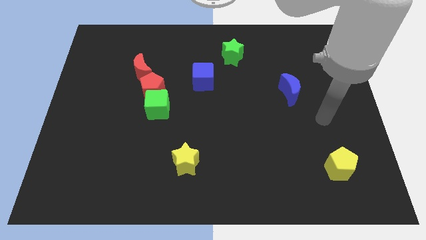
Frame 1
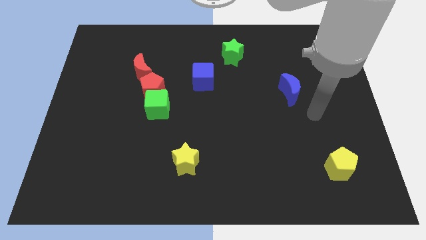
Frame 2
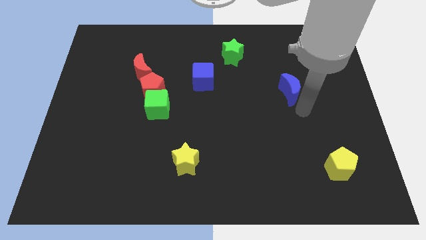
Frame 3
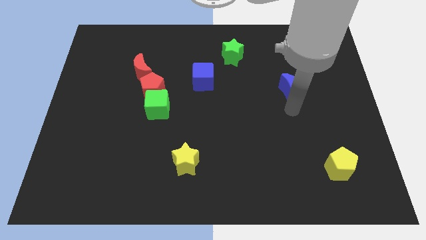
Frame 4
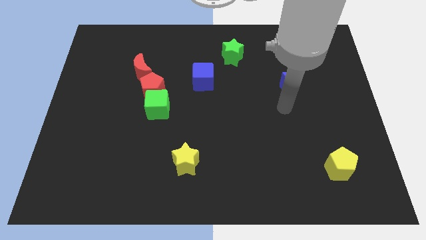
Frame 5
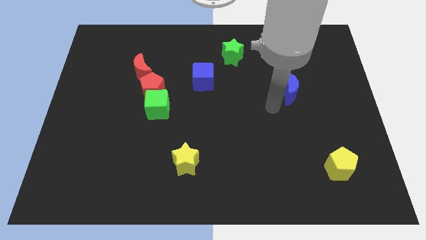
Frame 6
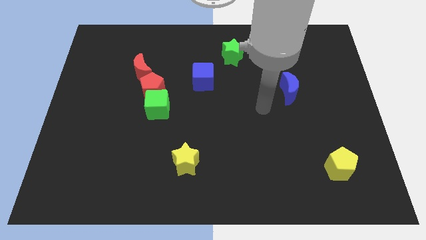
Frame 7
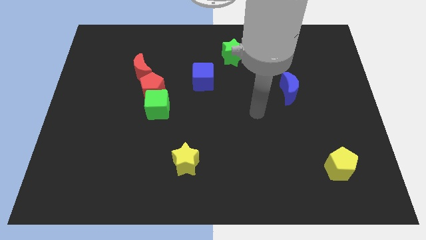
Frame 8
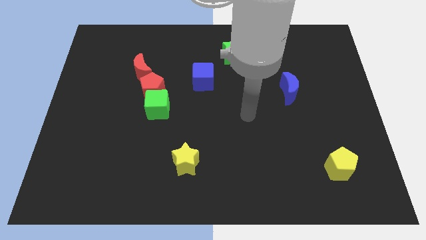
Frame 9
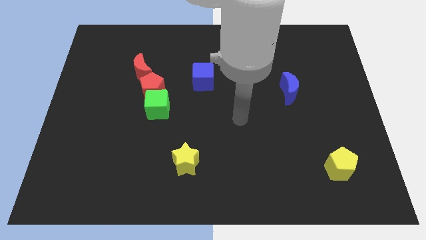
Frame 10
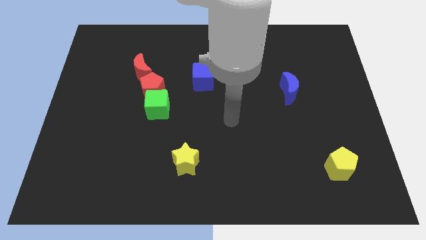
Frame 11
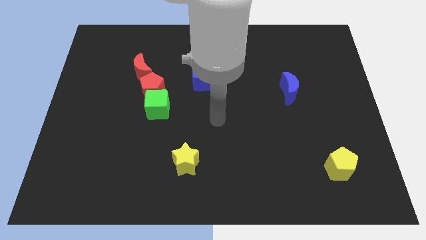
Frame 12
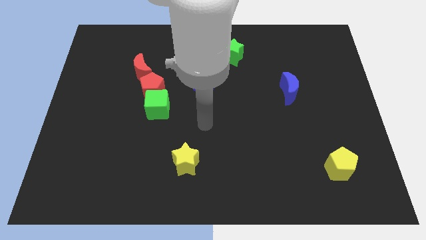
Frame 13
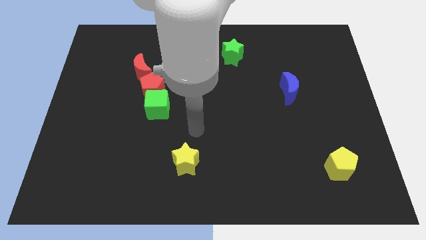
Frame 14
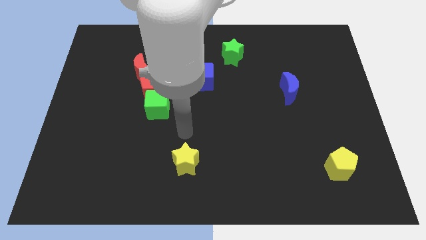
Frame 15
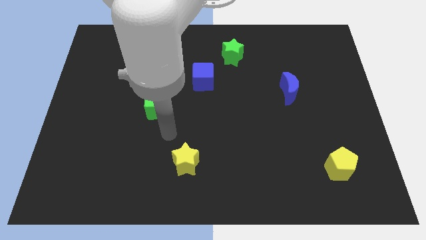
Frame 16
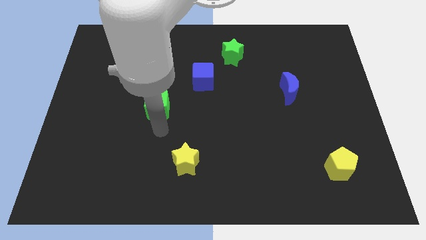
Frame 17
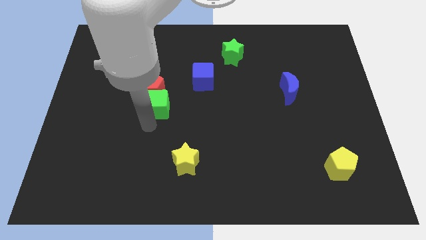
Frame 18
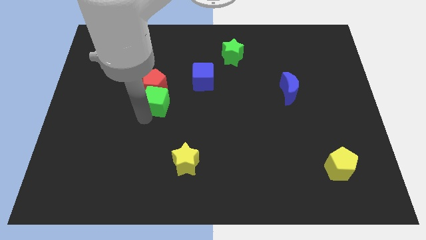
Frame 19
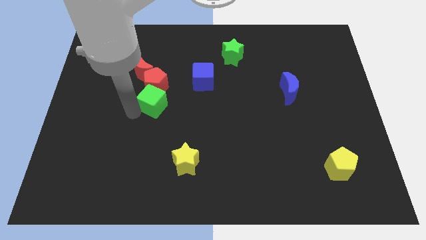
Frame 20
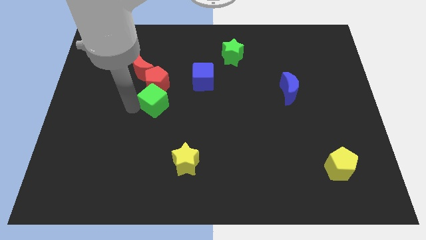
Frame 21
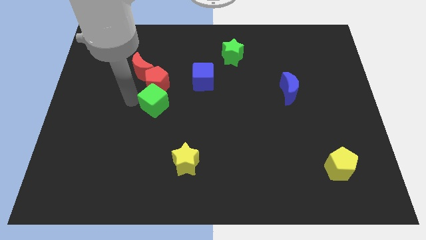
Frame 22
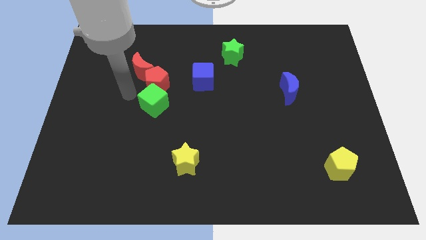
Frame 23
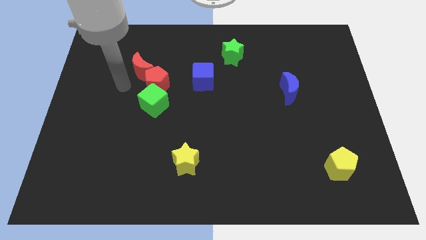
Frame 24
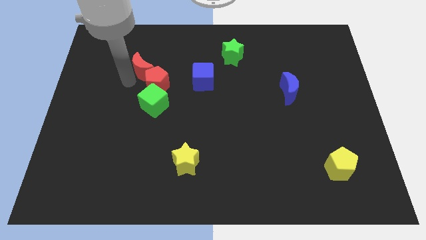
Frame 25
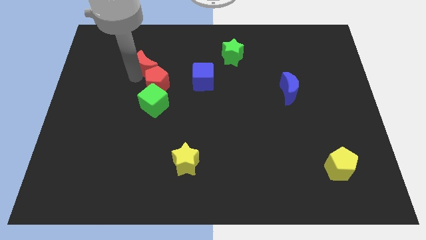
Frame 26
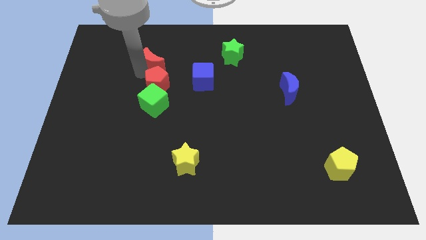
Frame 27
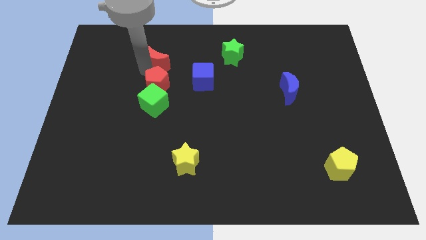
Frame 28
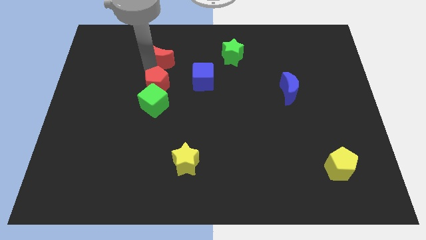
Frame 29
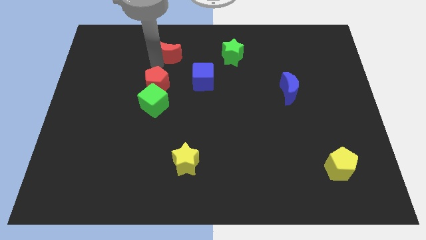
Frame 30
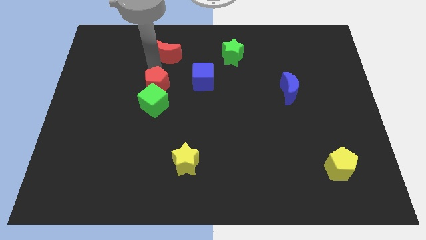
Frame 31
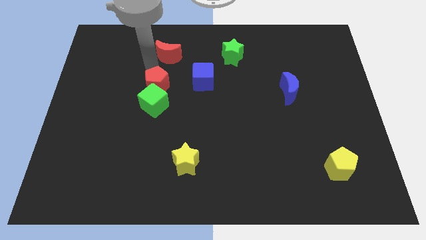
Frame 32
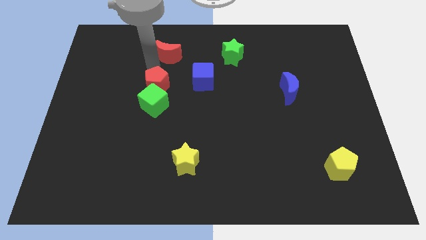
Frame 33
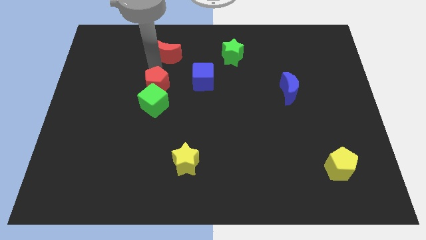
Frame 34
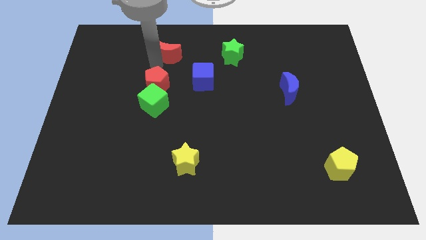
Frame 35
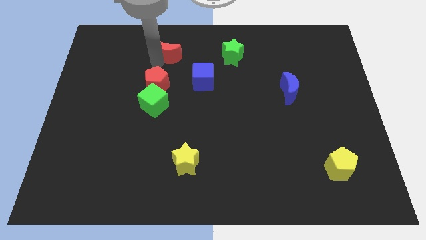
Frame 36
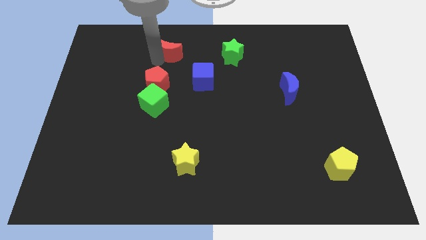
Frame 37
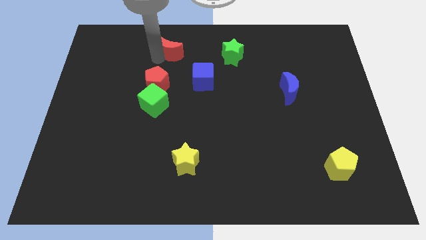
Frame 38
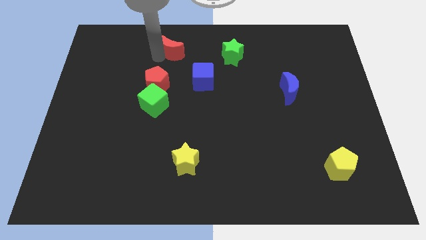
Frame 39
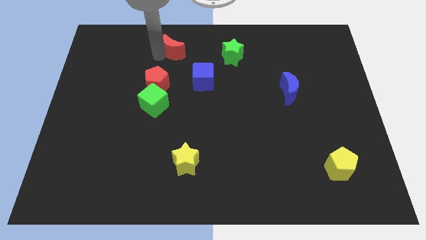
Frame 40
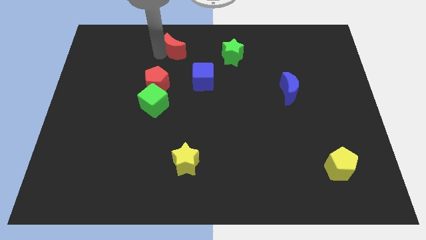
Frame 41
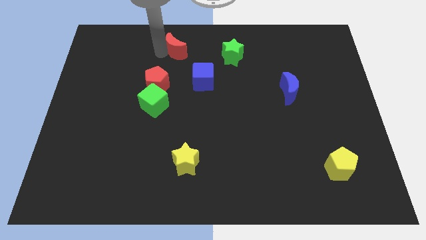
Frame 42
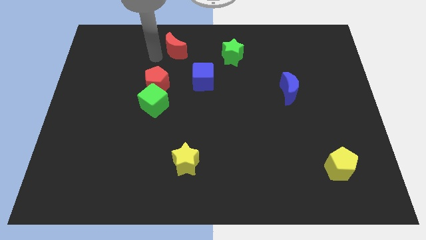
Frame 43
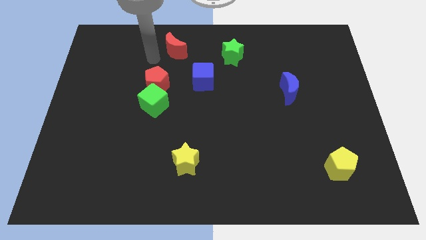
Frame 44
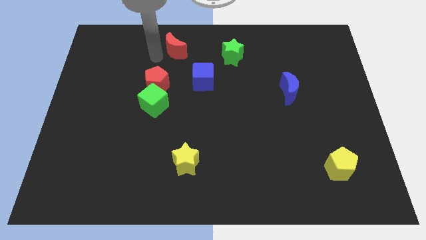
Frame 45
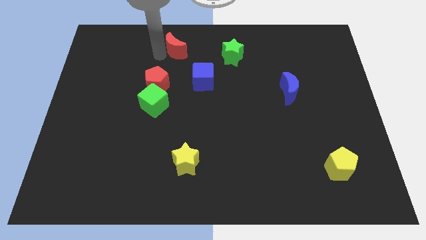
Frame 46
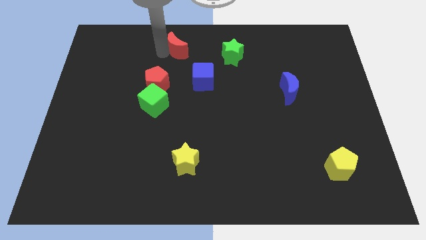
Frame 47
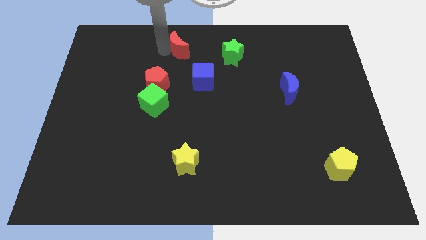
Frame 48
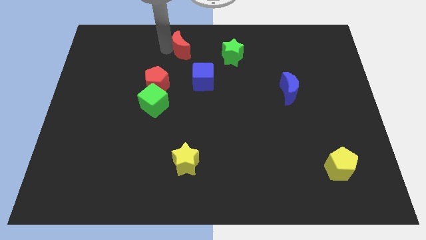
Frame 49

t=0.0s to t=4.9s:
move the red moon to the top

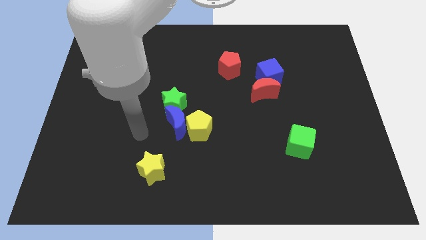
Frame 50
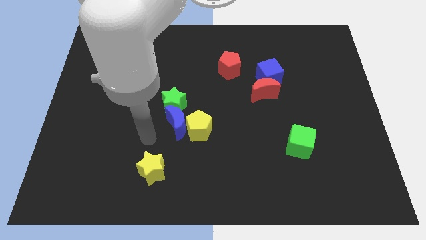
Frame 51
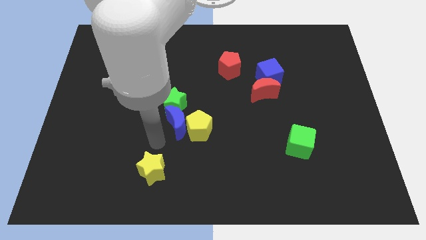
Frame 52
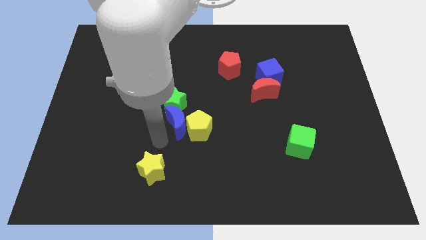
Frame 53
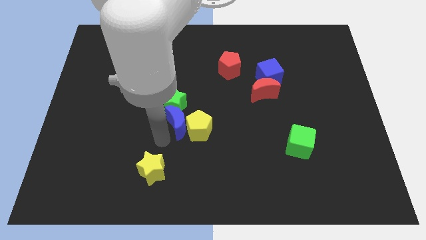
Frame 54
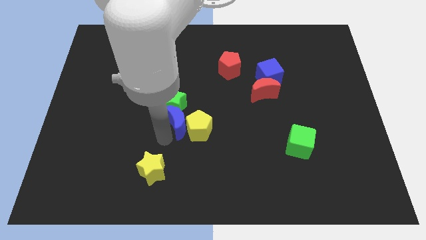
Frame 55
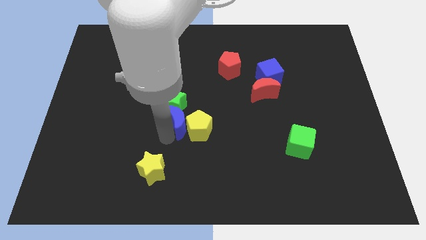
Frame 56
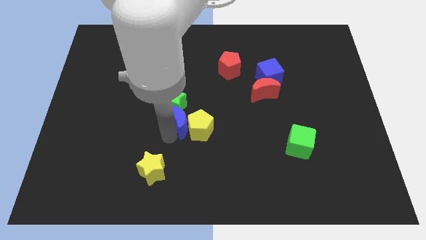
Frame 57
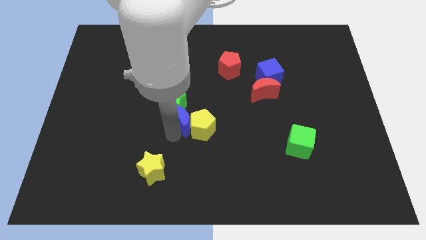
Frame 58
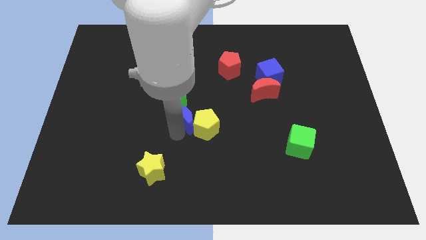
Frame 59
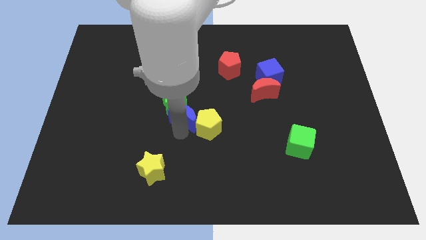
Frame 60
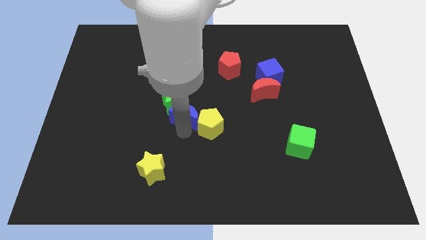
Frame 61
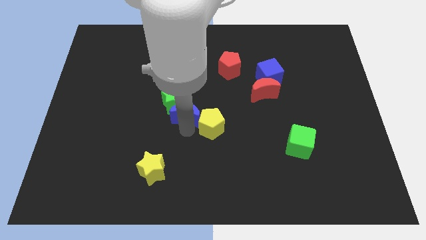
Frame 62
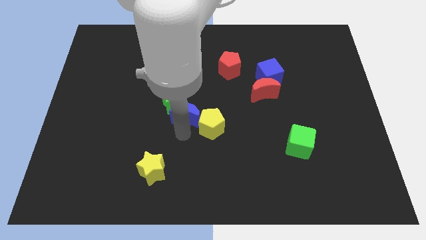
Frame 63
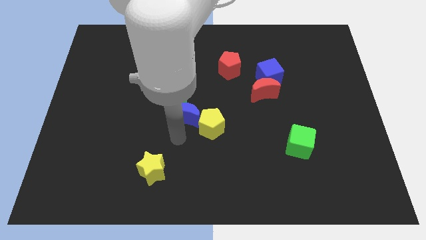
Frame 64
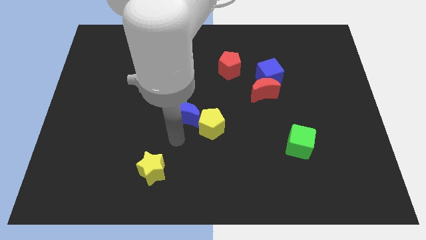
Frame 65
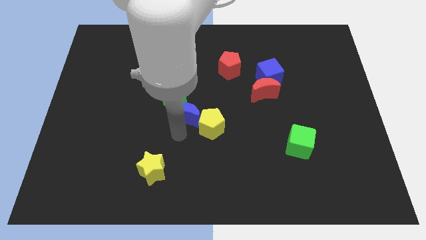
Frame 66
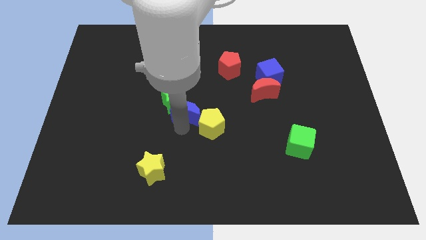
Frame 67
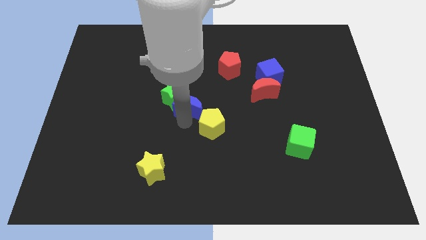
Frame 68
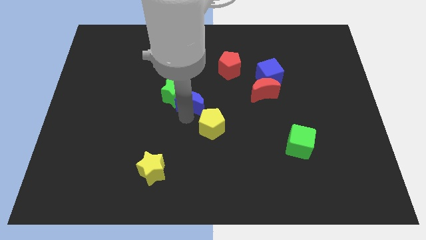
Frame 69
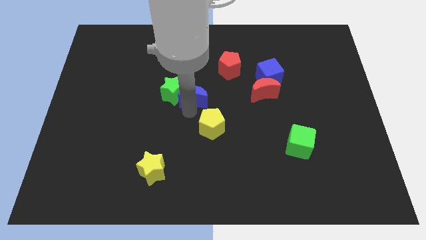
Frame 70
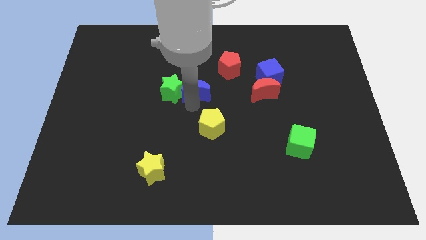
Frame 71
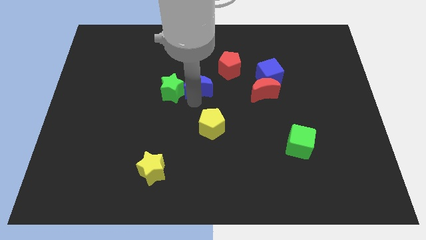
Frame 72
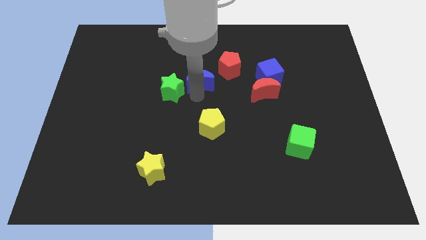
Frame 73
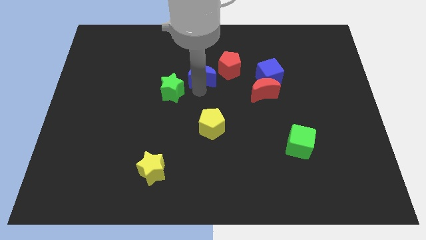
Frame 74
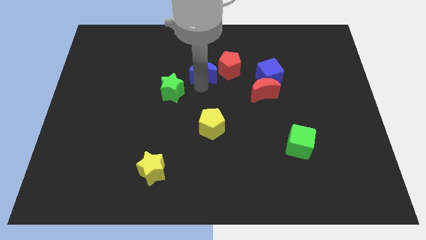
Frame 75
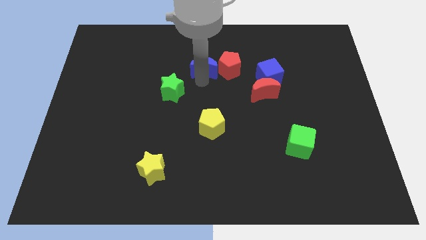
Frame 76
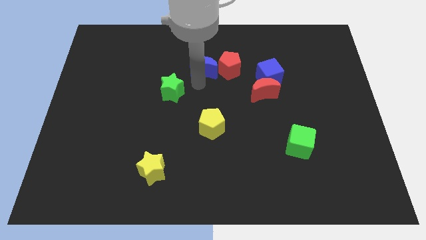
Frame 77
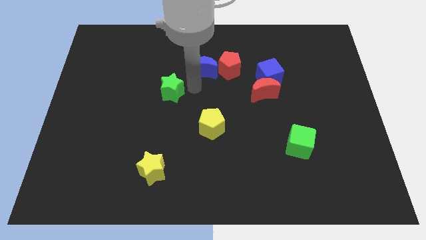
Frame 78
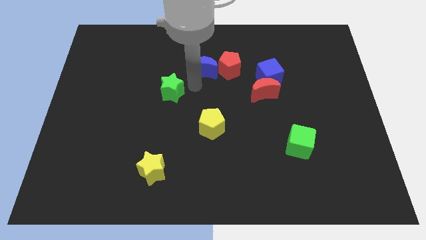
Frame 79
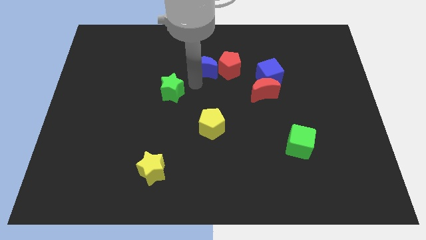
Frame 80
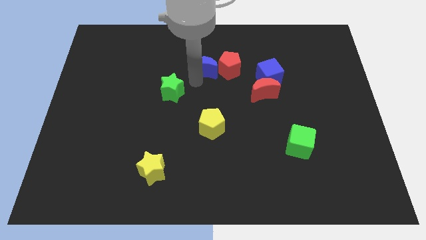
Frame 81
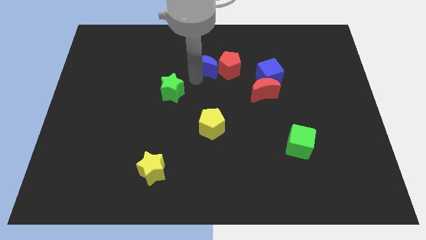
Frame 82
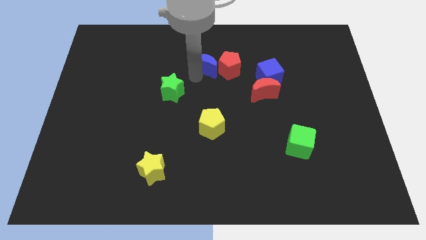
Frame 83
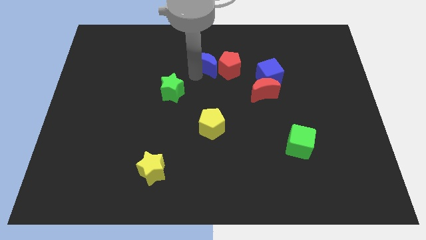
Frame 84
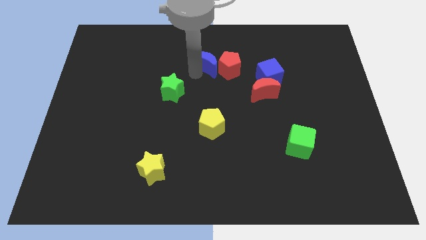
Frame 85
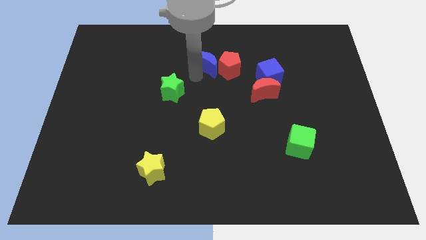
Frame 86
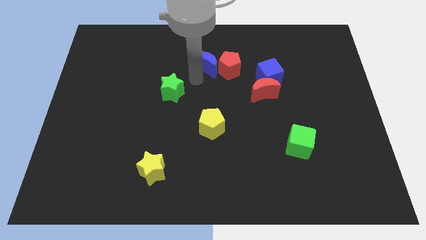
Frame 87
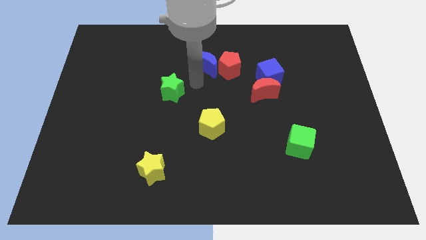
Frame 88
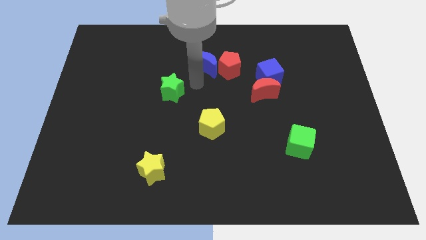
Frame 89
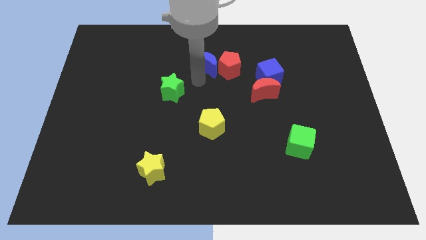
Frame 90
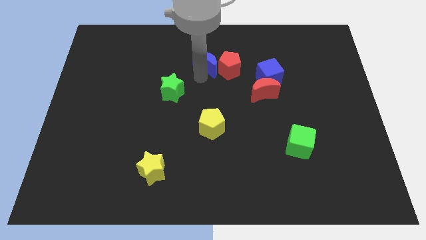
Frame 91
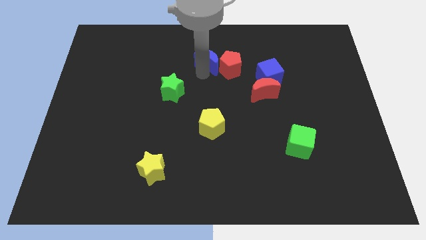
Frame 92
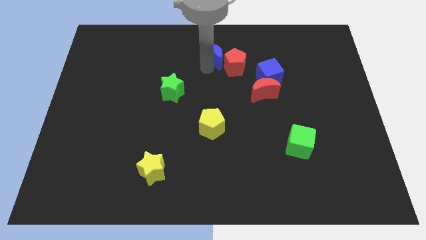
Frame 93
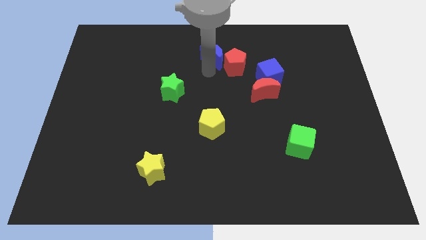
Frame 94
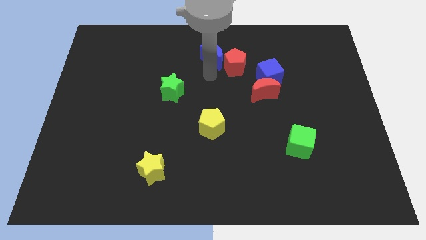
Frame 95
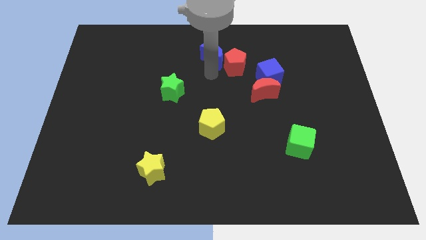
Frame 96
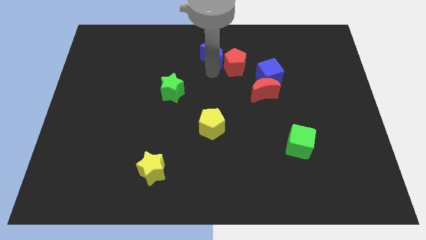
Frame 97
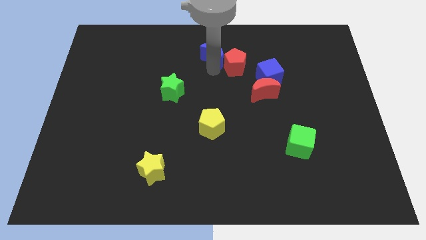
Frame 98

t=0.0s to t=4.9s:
slide the blue moon to the top side
